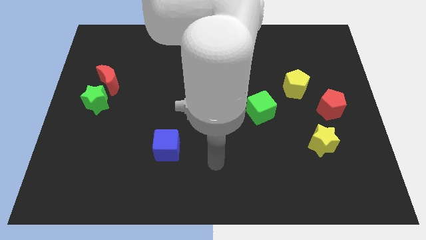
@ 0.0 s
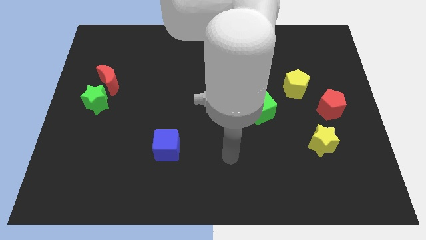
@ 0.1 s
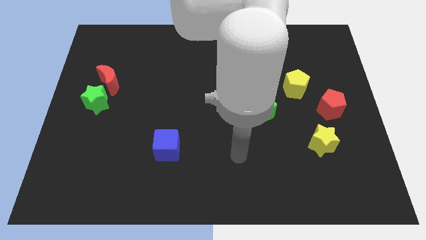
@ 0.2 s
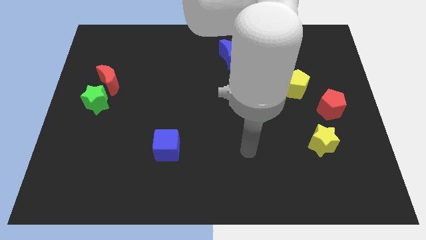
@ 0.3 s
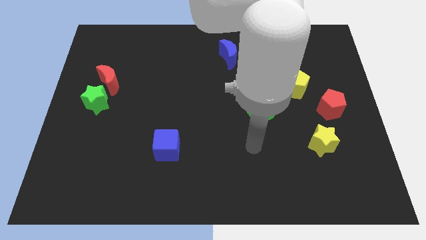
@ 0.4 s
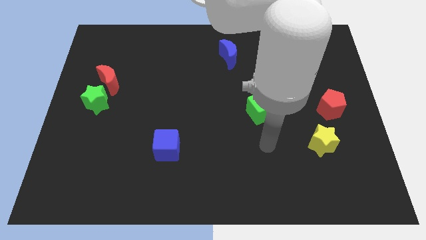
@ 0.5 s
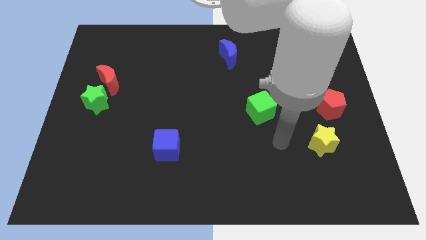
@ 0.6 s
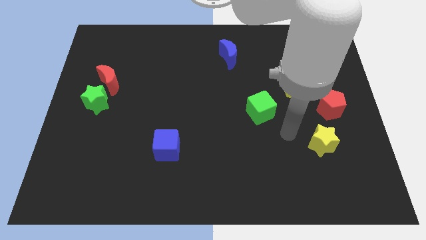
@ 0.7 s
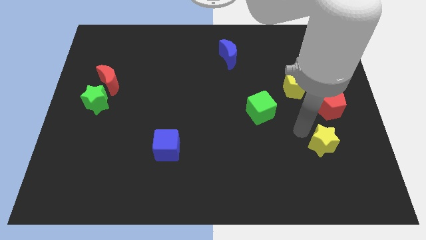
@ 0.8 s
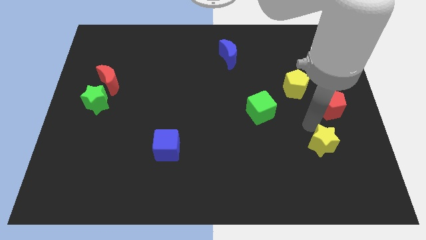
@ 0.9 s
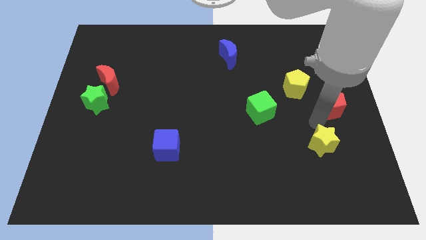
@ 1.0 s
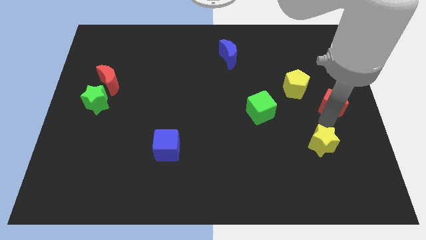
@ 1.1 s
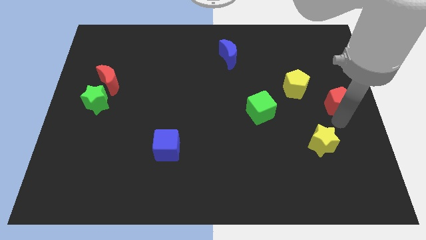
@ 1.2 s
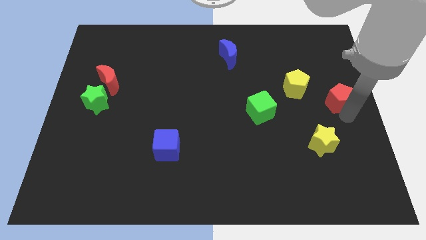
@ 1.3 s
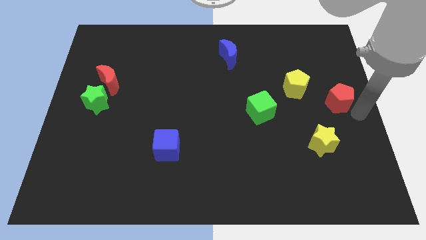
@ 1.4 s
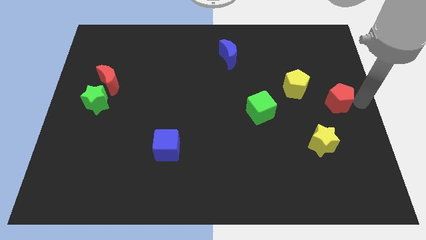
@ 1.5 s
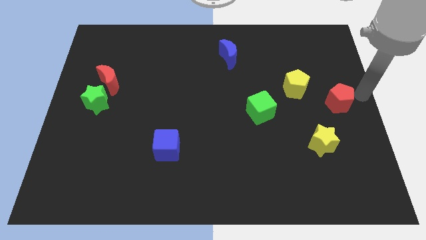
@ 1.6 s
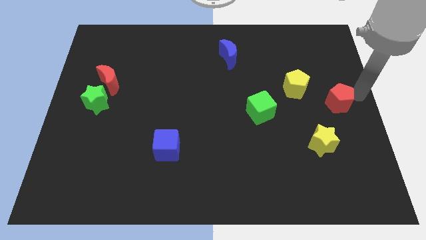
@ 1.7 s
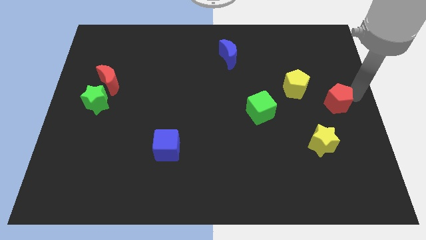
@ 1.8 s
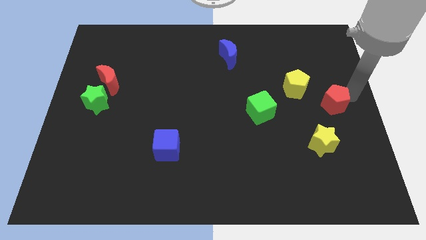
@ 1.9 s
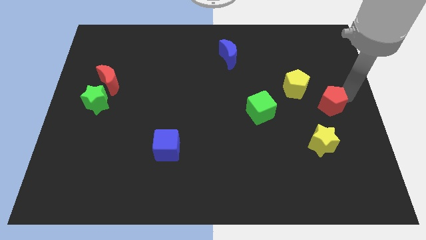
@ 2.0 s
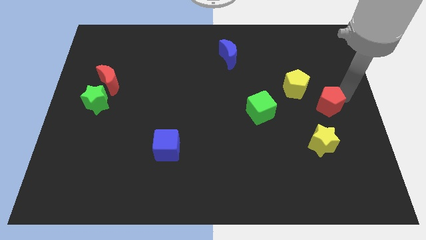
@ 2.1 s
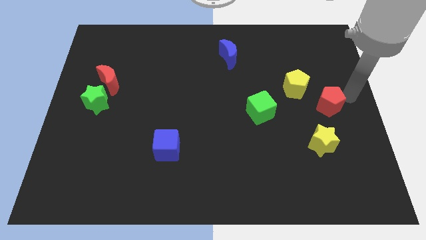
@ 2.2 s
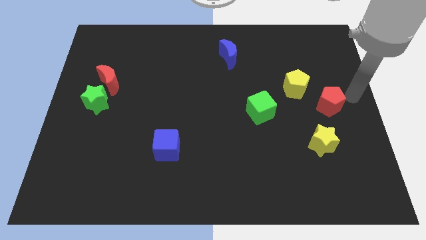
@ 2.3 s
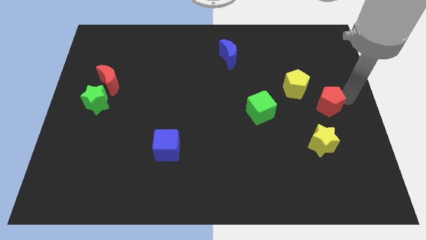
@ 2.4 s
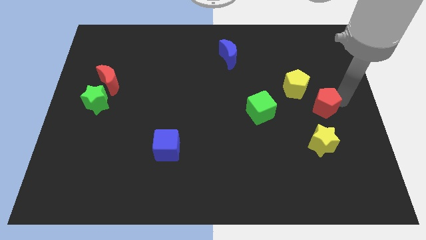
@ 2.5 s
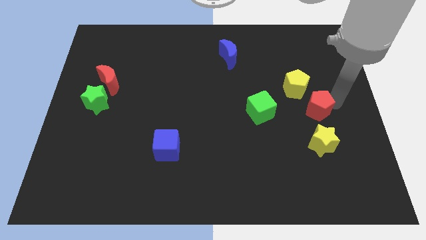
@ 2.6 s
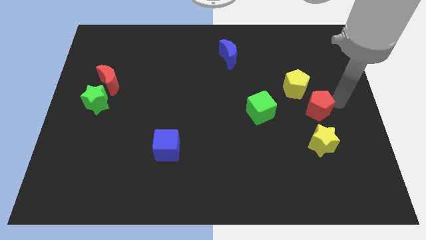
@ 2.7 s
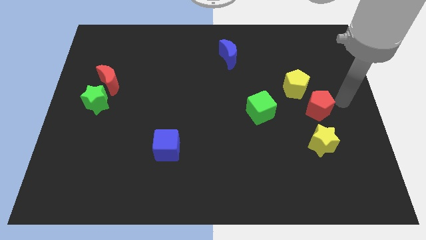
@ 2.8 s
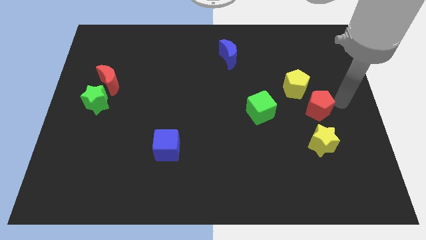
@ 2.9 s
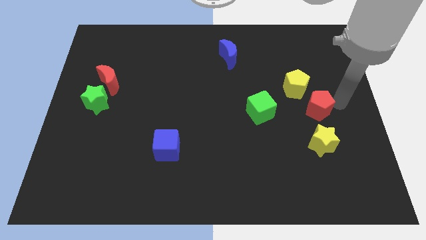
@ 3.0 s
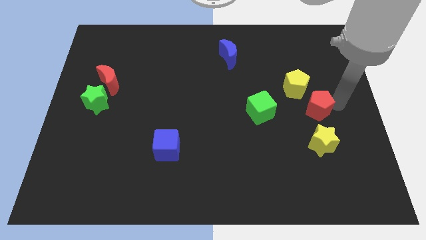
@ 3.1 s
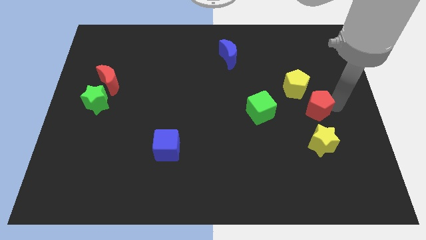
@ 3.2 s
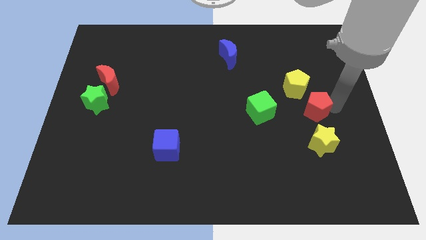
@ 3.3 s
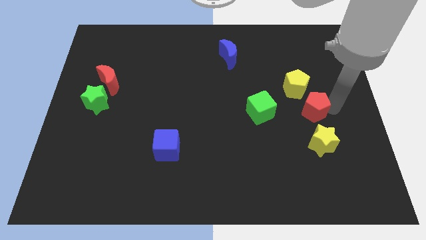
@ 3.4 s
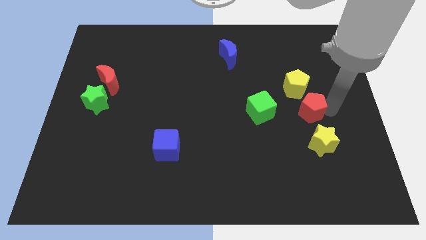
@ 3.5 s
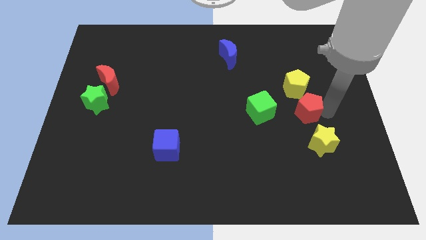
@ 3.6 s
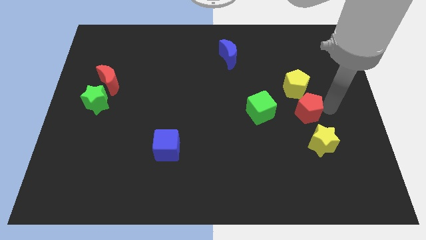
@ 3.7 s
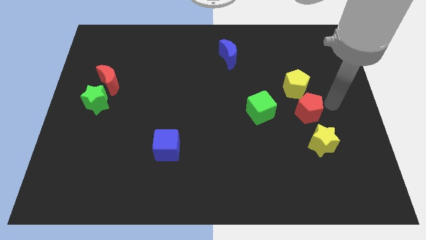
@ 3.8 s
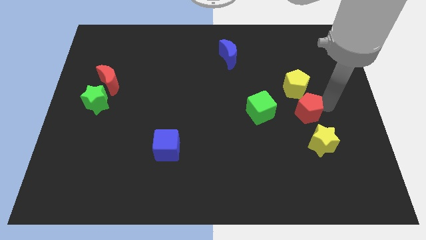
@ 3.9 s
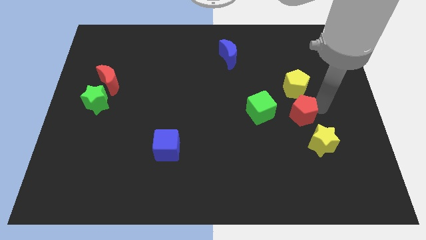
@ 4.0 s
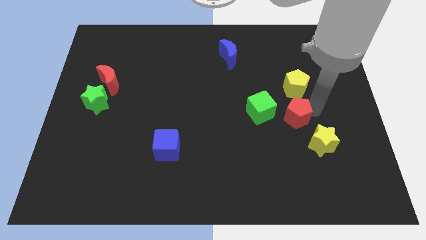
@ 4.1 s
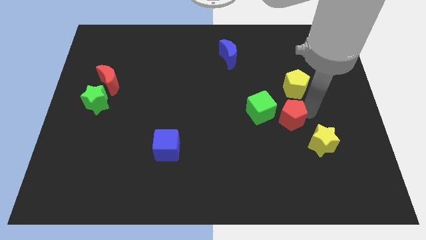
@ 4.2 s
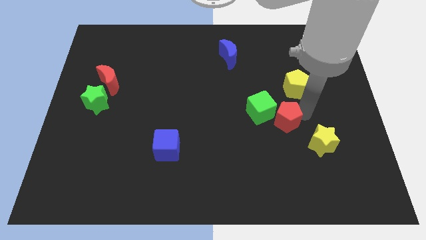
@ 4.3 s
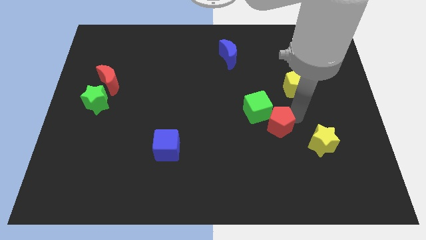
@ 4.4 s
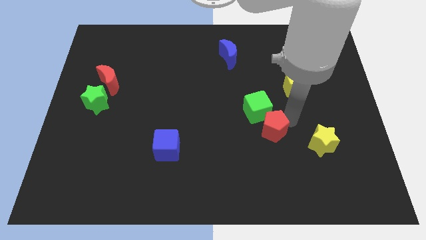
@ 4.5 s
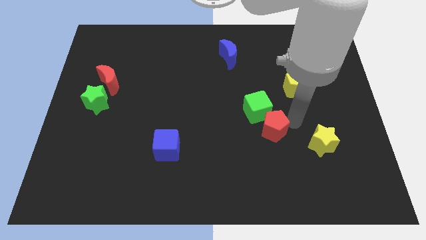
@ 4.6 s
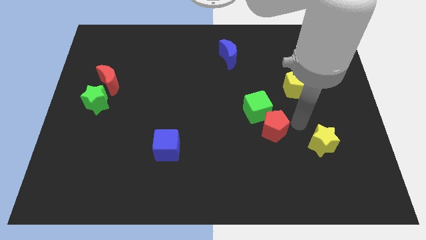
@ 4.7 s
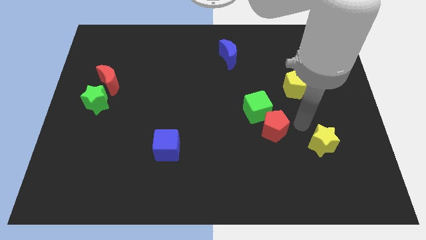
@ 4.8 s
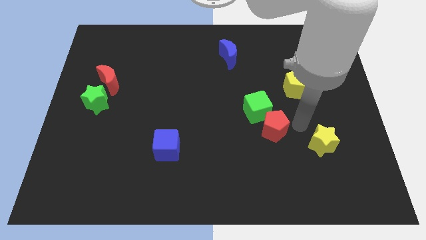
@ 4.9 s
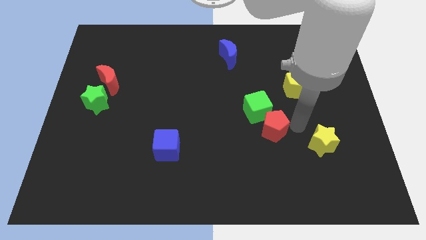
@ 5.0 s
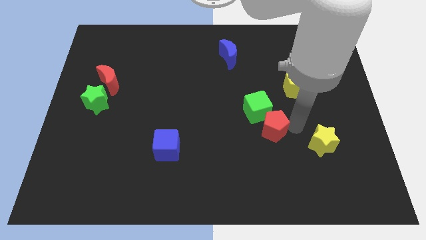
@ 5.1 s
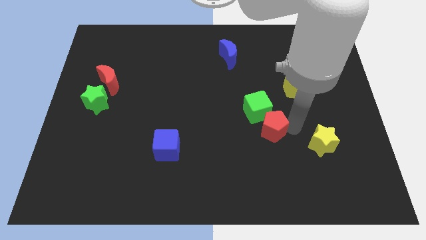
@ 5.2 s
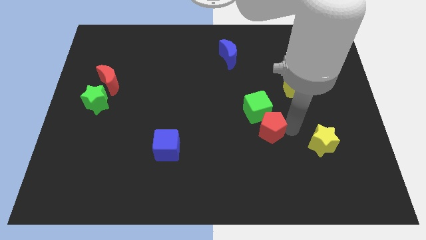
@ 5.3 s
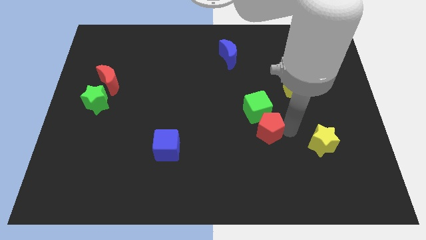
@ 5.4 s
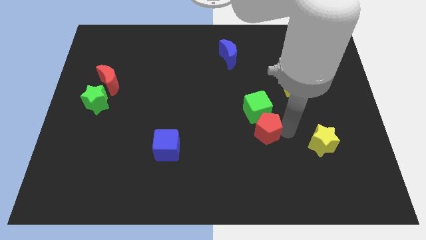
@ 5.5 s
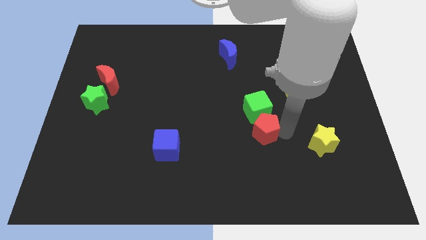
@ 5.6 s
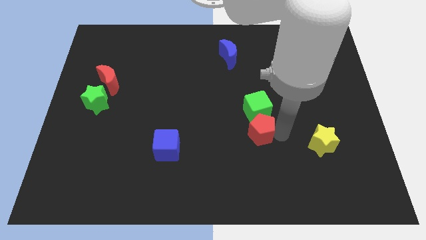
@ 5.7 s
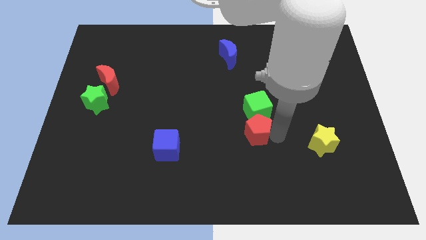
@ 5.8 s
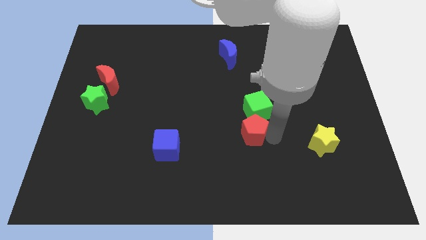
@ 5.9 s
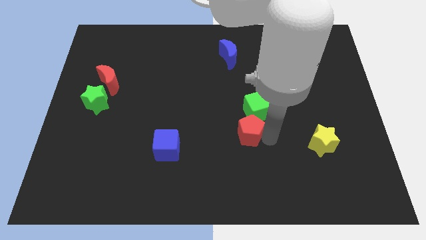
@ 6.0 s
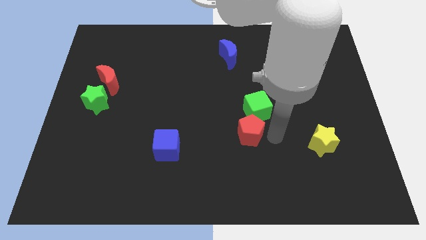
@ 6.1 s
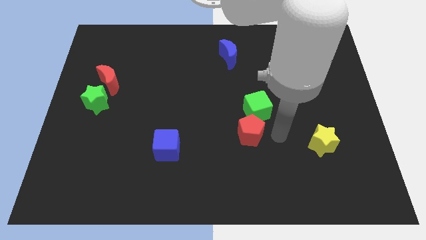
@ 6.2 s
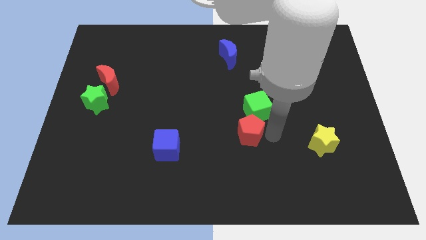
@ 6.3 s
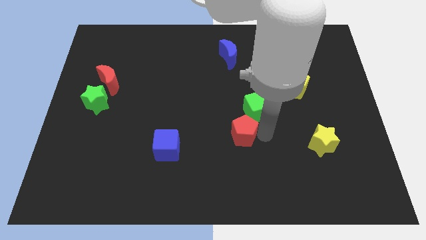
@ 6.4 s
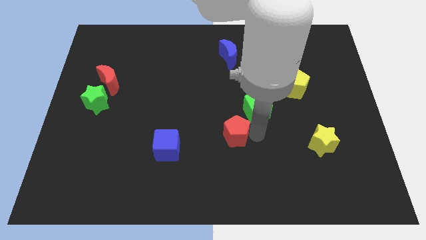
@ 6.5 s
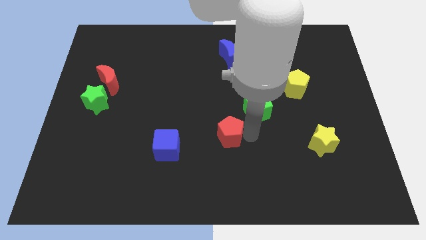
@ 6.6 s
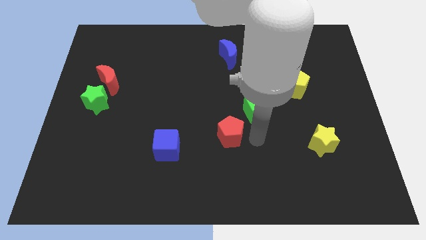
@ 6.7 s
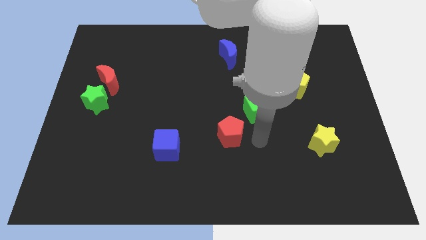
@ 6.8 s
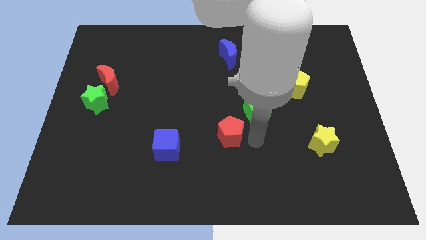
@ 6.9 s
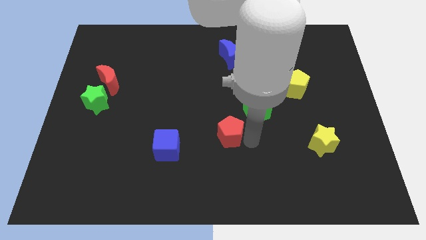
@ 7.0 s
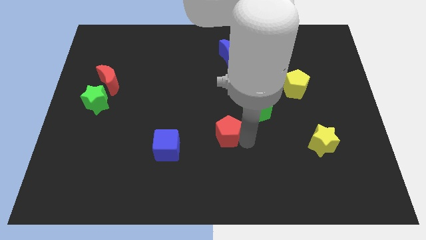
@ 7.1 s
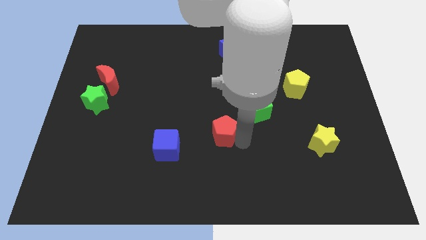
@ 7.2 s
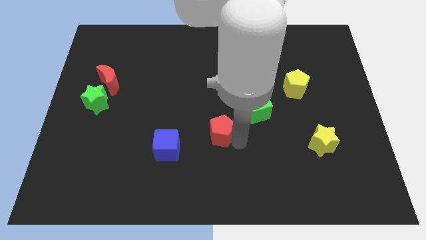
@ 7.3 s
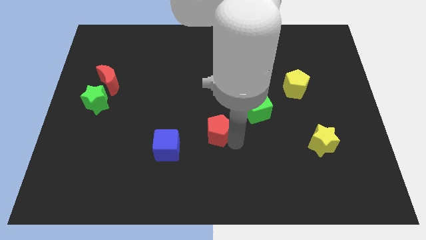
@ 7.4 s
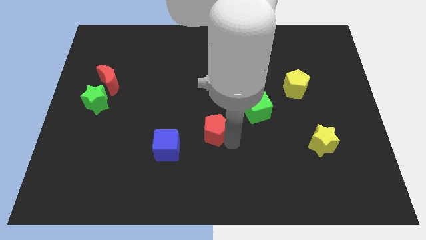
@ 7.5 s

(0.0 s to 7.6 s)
put the red pentagon diagonally up and to the right of the blue cube
